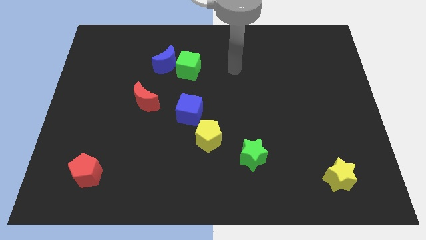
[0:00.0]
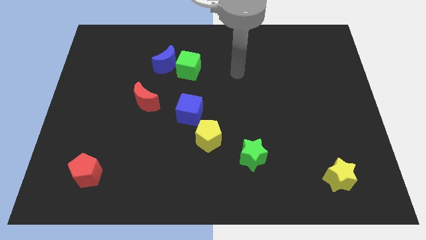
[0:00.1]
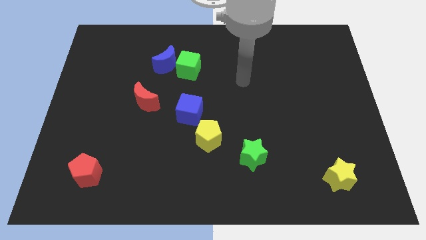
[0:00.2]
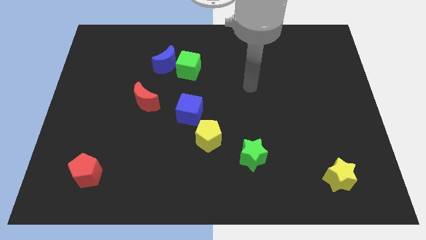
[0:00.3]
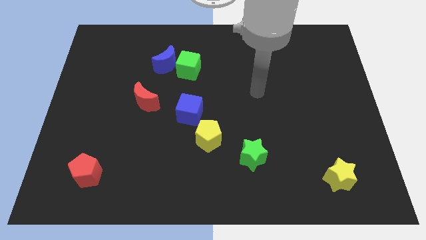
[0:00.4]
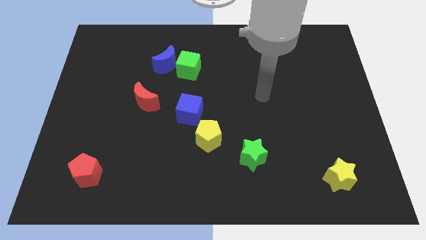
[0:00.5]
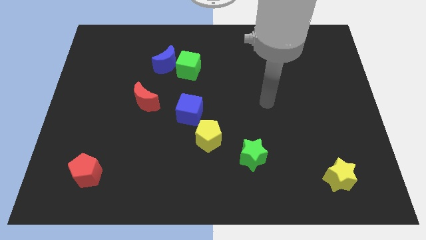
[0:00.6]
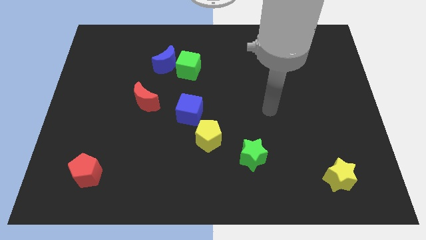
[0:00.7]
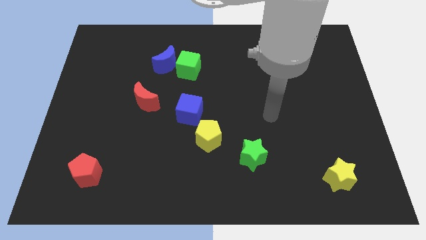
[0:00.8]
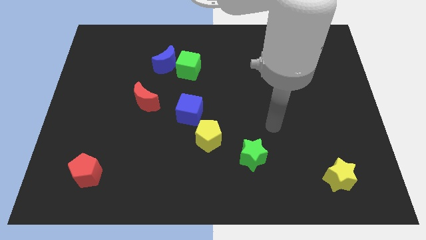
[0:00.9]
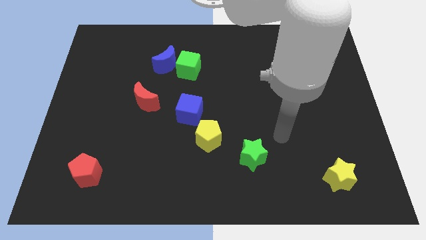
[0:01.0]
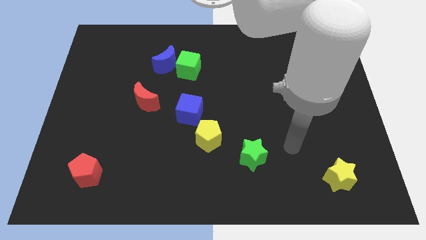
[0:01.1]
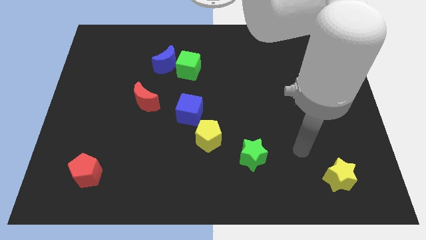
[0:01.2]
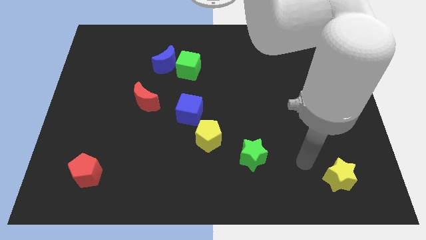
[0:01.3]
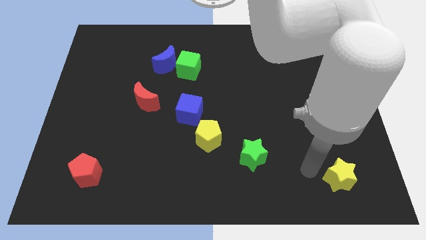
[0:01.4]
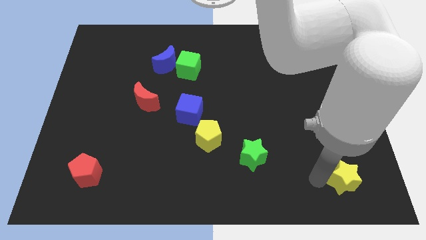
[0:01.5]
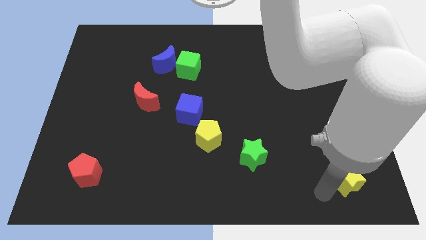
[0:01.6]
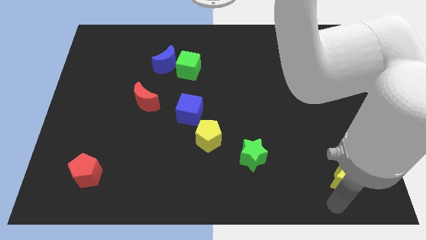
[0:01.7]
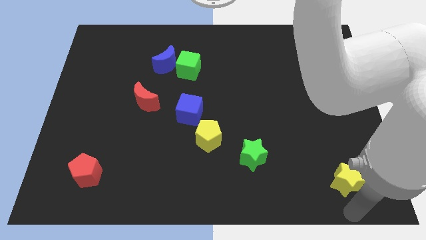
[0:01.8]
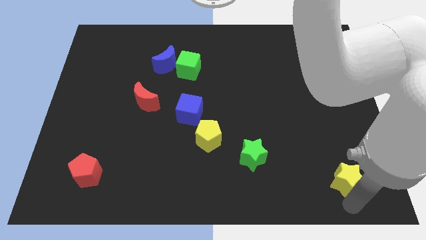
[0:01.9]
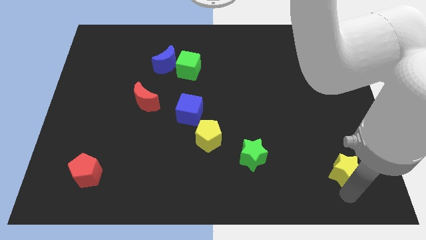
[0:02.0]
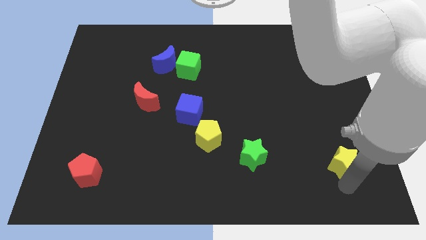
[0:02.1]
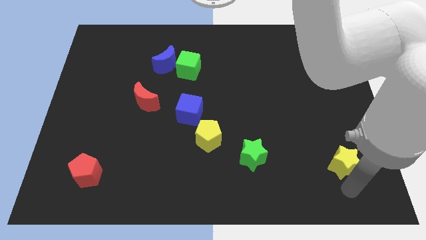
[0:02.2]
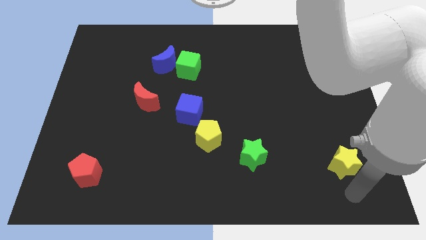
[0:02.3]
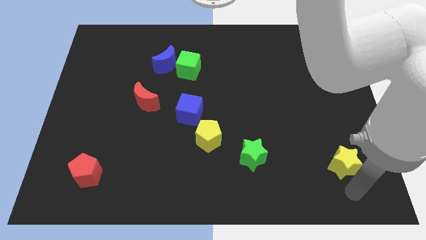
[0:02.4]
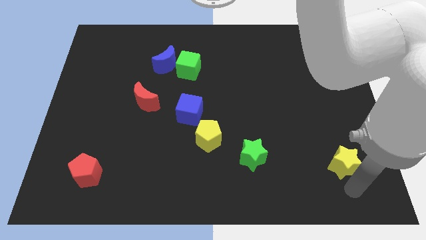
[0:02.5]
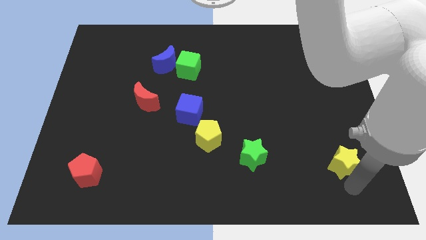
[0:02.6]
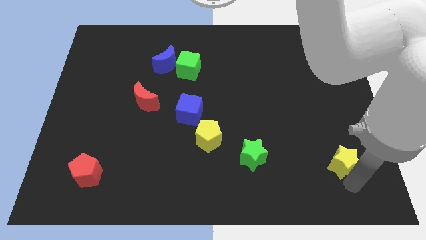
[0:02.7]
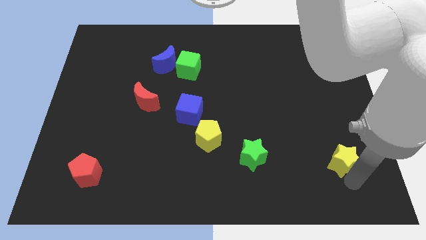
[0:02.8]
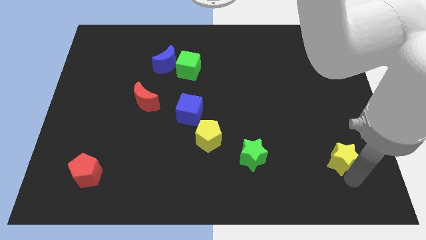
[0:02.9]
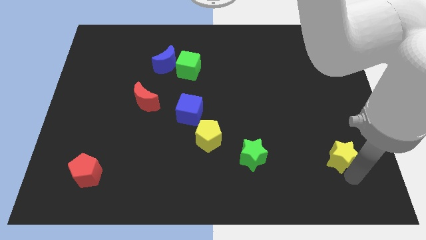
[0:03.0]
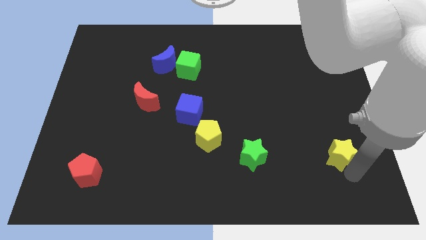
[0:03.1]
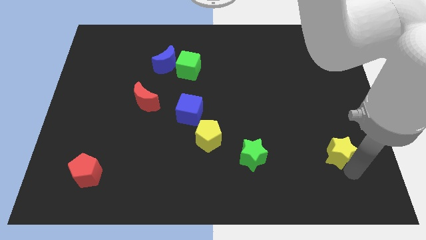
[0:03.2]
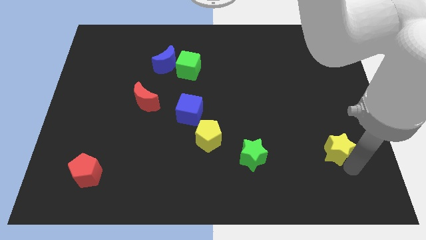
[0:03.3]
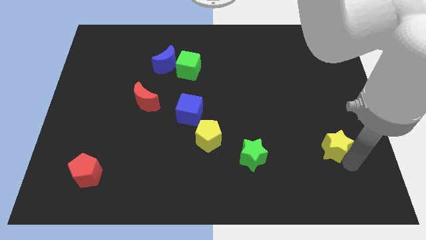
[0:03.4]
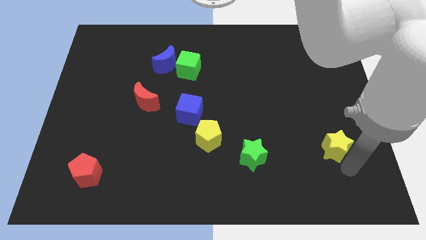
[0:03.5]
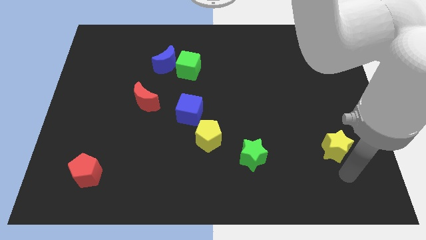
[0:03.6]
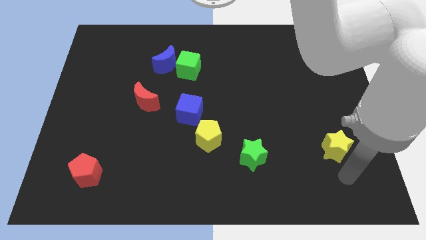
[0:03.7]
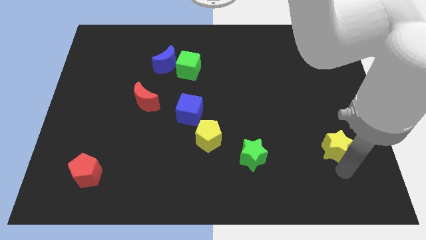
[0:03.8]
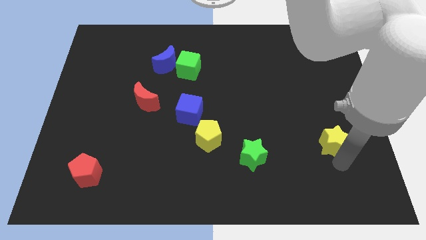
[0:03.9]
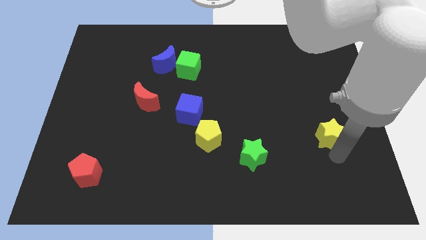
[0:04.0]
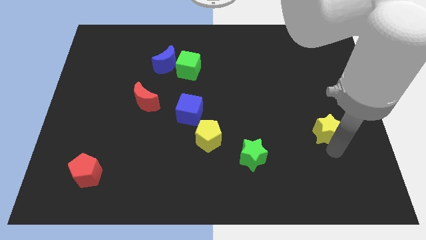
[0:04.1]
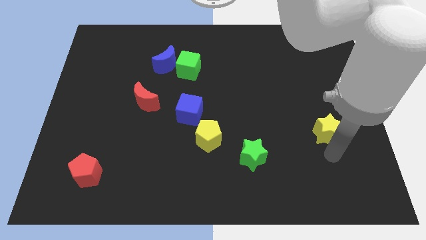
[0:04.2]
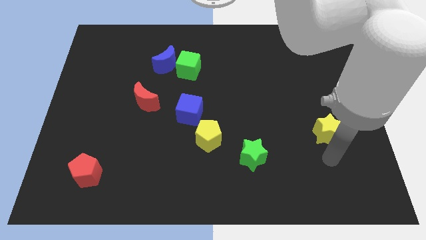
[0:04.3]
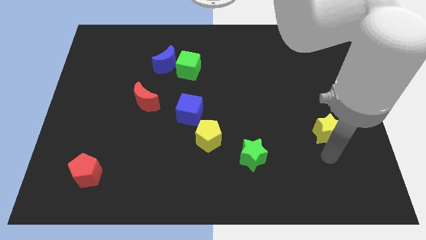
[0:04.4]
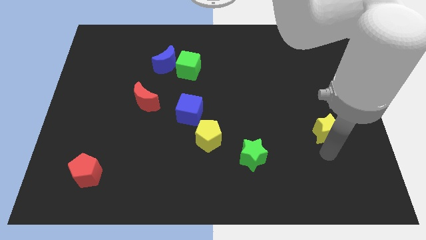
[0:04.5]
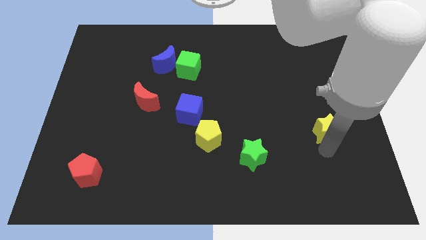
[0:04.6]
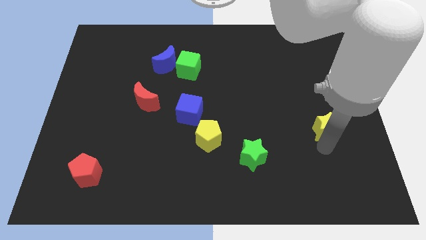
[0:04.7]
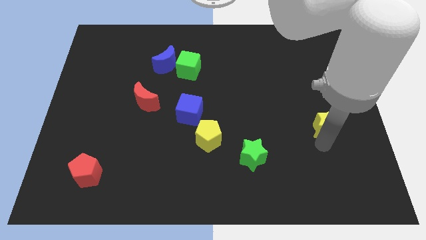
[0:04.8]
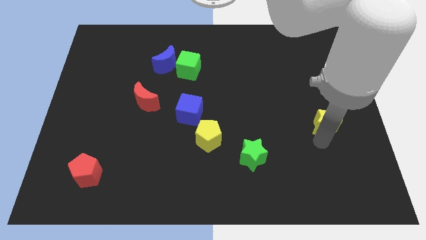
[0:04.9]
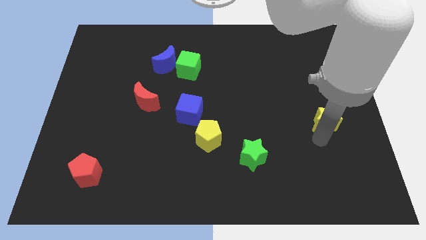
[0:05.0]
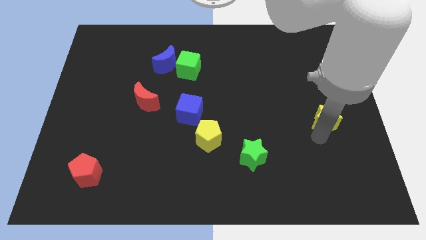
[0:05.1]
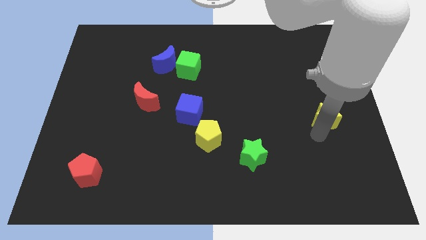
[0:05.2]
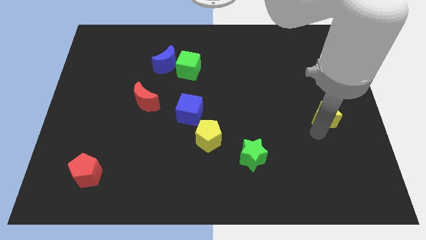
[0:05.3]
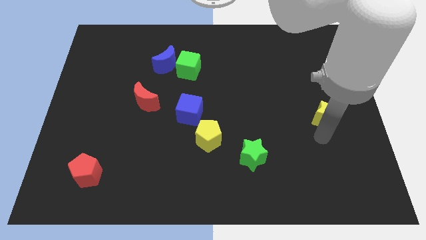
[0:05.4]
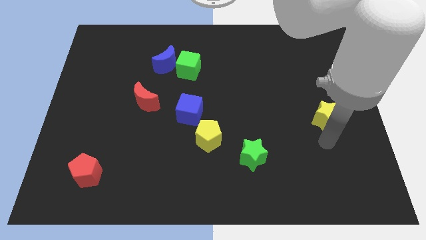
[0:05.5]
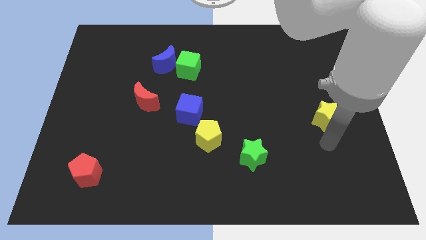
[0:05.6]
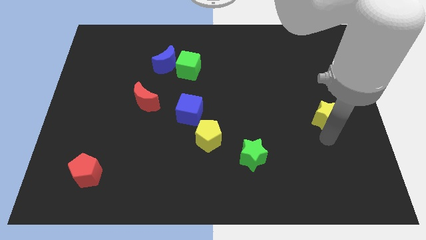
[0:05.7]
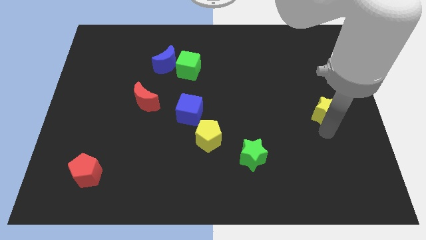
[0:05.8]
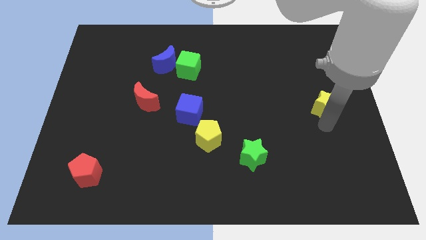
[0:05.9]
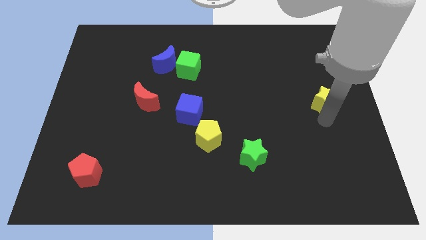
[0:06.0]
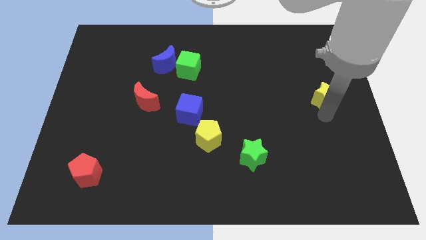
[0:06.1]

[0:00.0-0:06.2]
push the yellow star up

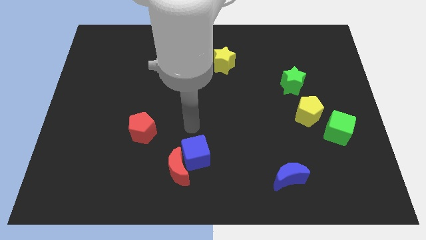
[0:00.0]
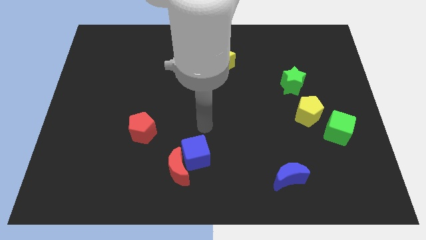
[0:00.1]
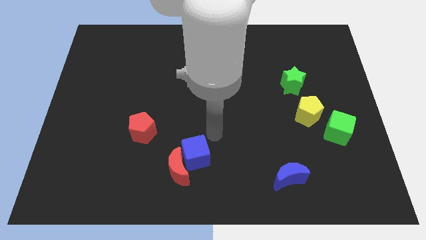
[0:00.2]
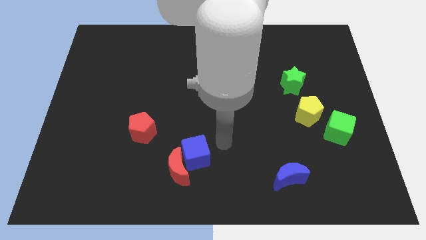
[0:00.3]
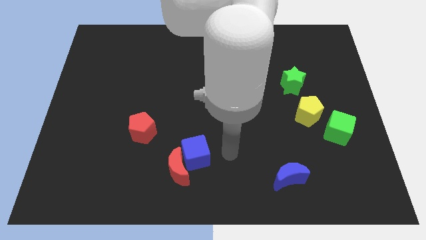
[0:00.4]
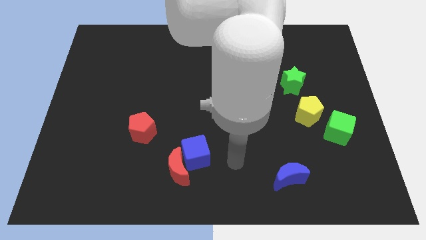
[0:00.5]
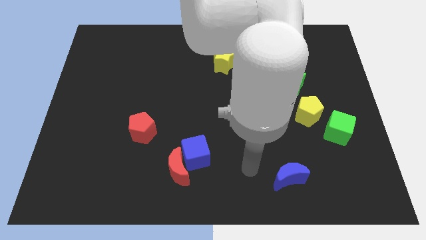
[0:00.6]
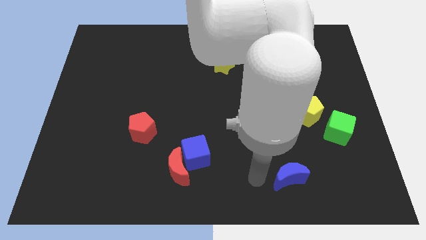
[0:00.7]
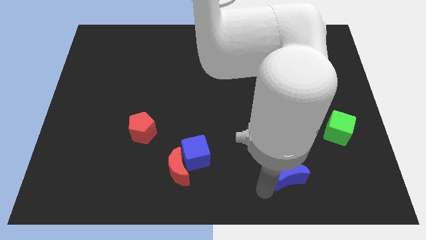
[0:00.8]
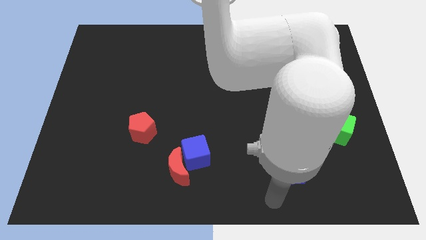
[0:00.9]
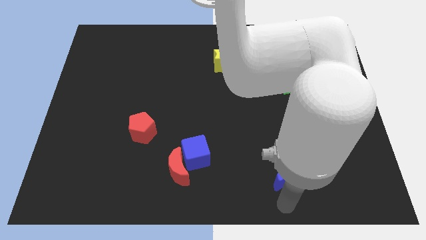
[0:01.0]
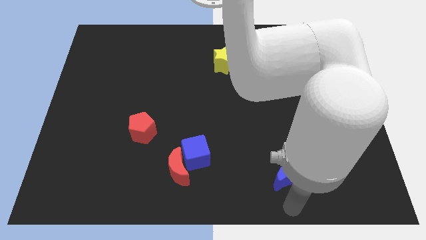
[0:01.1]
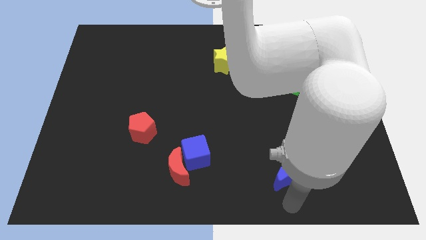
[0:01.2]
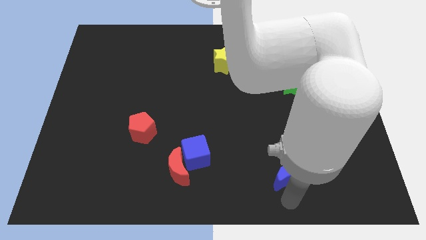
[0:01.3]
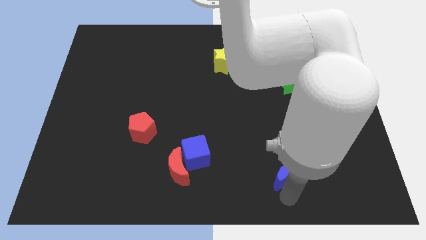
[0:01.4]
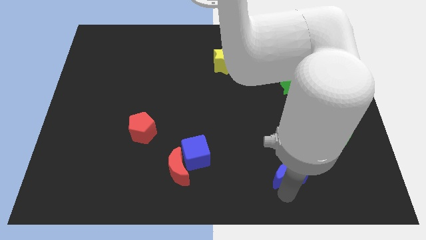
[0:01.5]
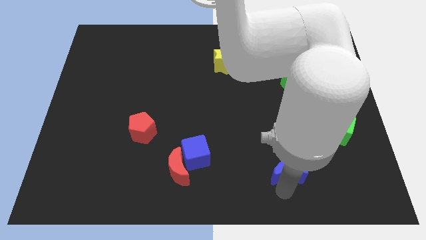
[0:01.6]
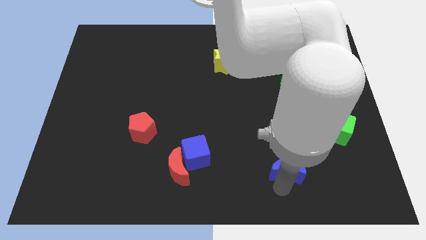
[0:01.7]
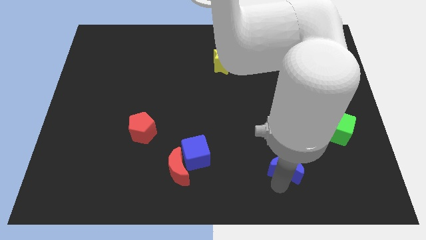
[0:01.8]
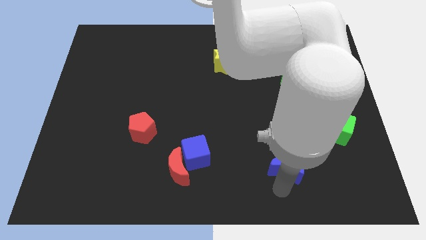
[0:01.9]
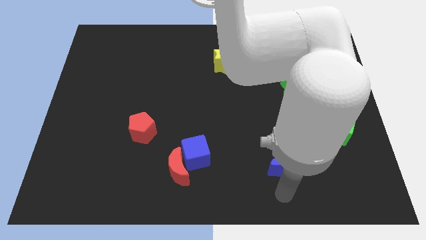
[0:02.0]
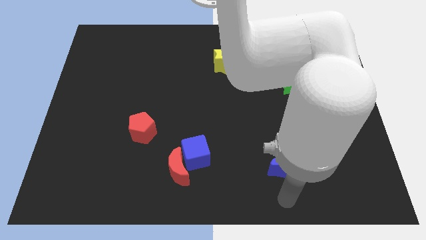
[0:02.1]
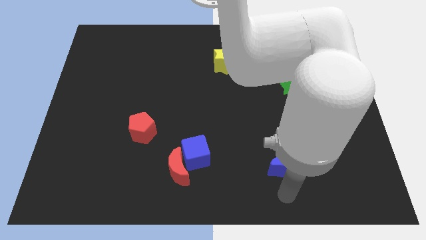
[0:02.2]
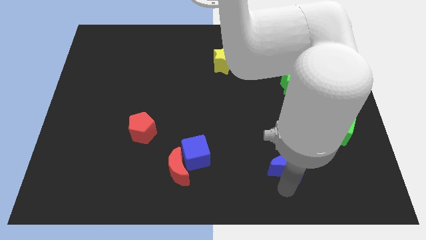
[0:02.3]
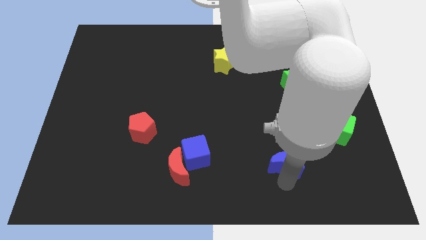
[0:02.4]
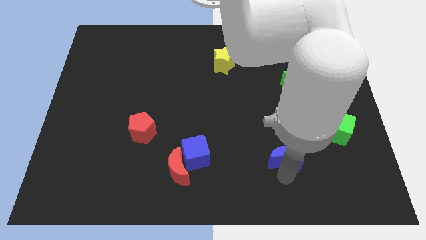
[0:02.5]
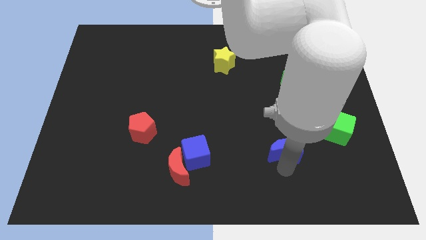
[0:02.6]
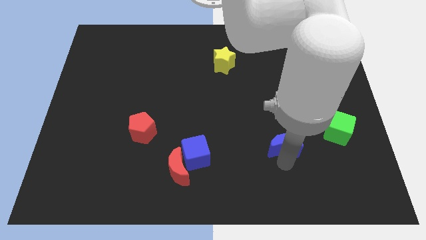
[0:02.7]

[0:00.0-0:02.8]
move the blue moon a little bit up
